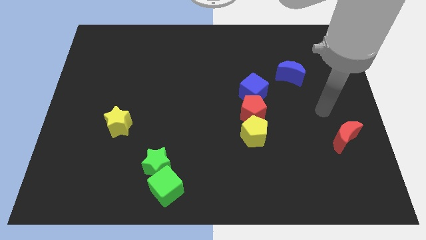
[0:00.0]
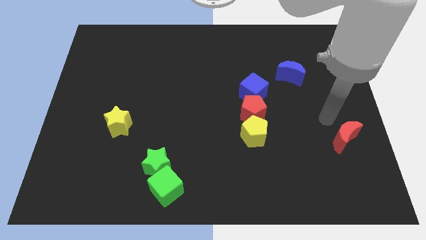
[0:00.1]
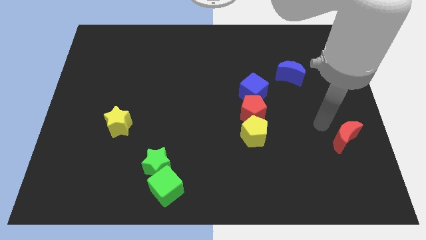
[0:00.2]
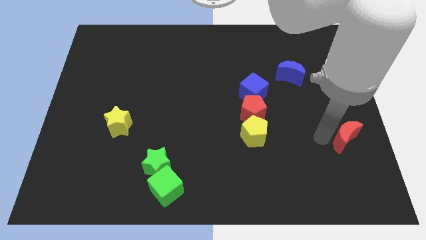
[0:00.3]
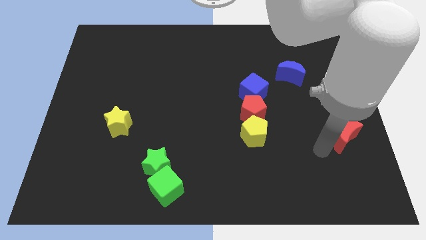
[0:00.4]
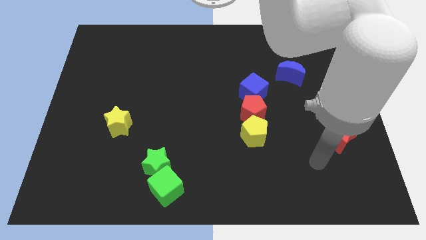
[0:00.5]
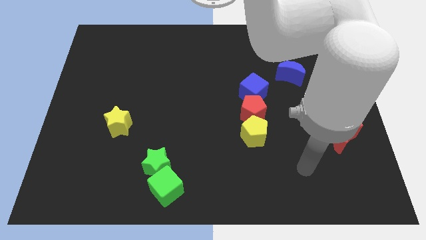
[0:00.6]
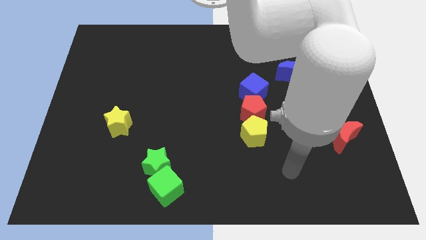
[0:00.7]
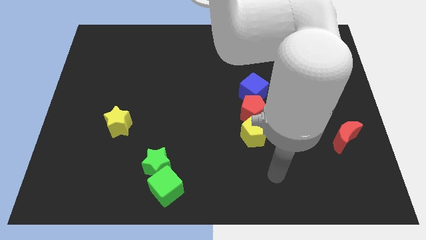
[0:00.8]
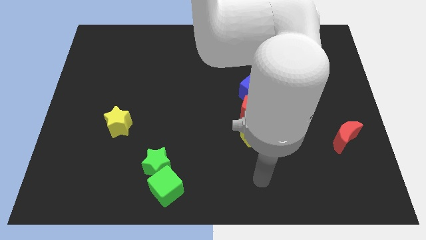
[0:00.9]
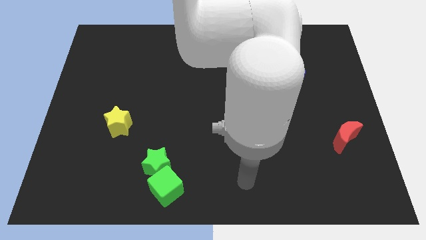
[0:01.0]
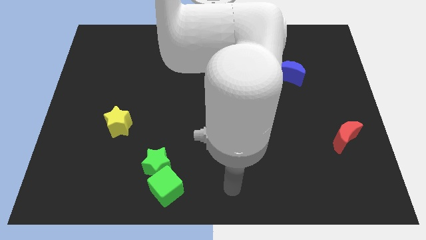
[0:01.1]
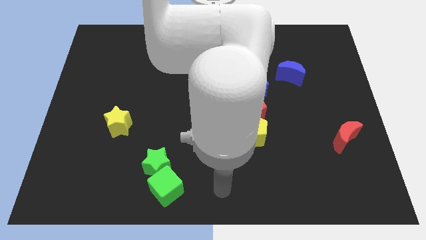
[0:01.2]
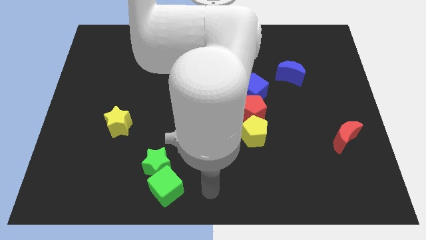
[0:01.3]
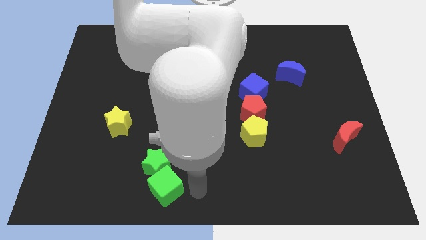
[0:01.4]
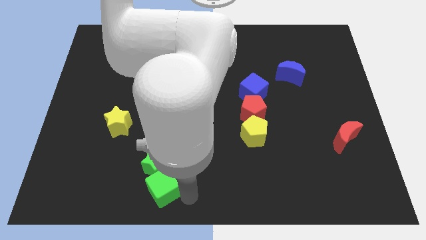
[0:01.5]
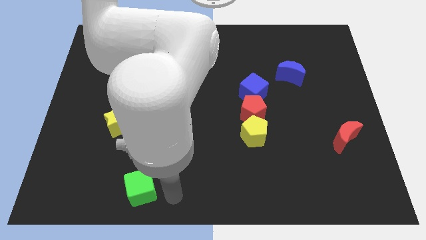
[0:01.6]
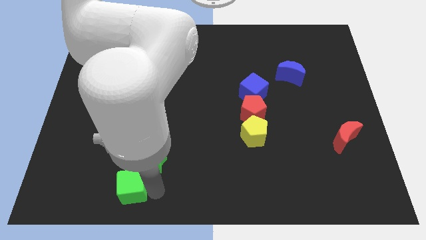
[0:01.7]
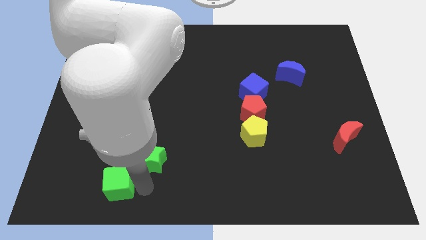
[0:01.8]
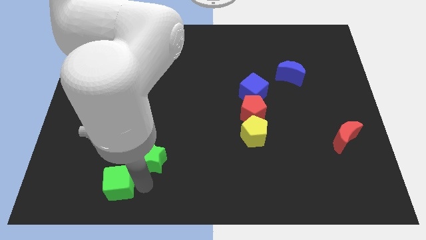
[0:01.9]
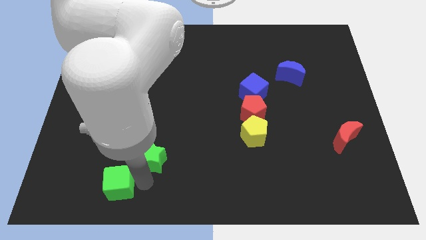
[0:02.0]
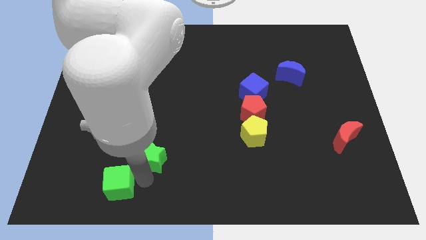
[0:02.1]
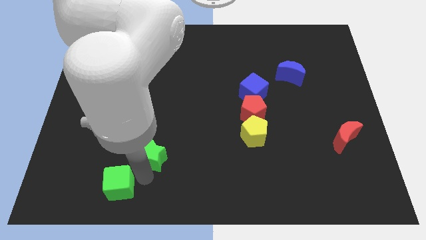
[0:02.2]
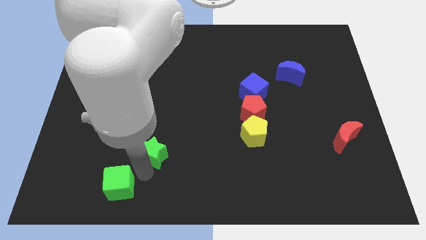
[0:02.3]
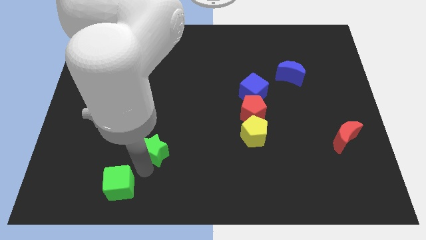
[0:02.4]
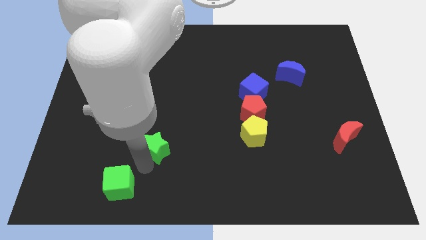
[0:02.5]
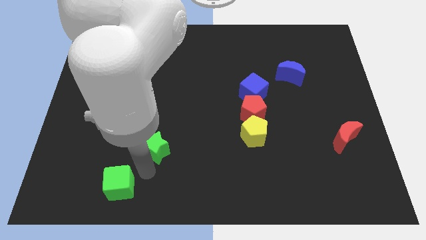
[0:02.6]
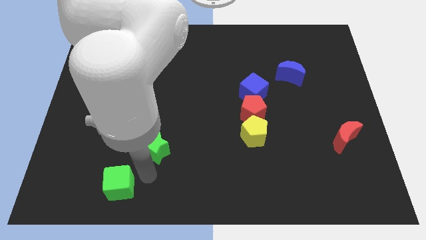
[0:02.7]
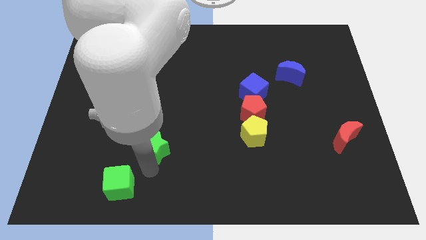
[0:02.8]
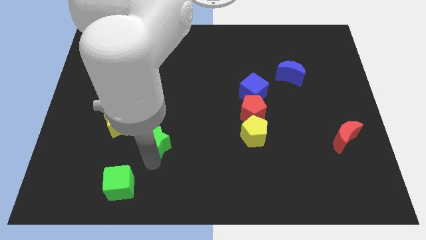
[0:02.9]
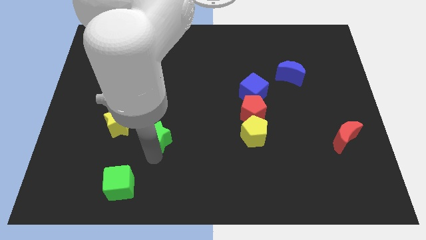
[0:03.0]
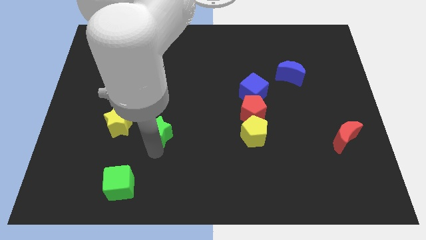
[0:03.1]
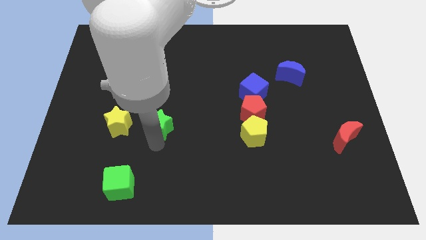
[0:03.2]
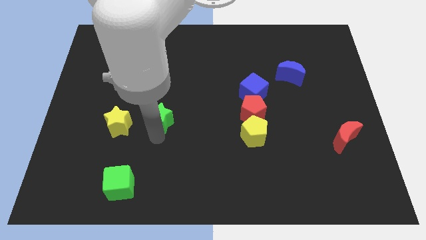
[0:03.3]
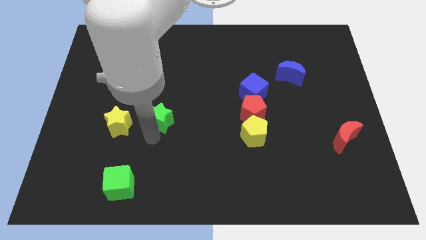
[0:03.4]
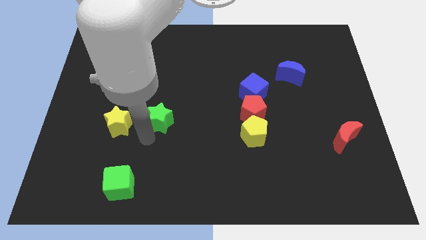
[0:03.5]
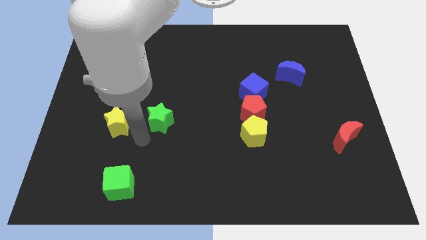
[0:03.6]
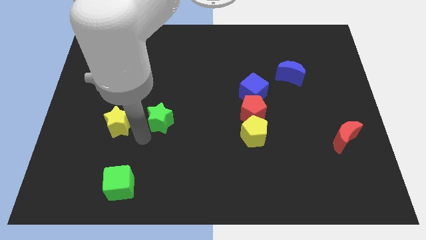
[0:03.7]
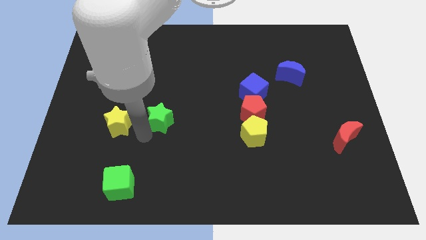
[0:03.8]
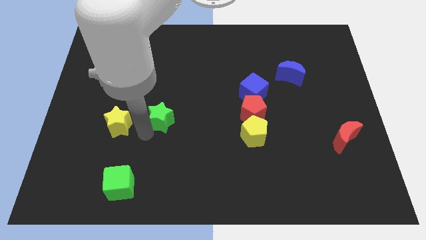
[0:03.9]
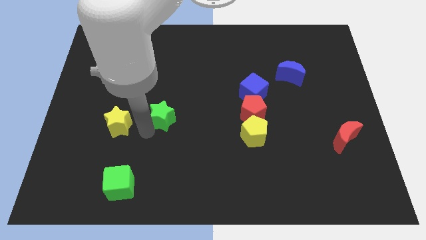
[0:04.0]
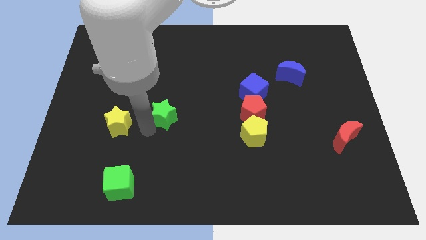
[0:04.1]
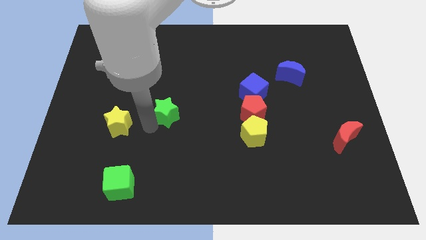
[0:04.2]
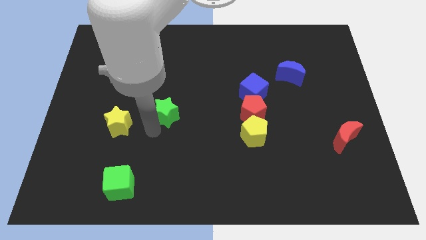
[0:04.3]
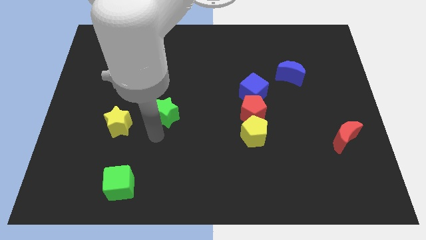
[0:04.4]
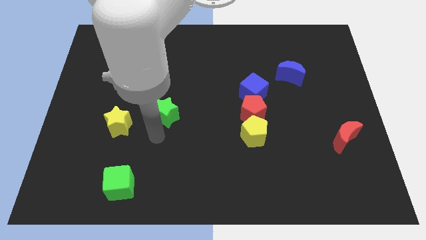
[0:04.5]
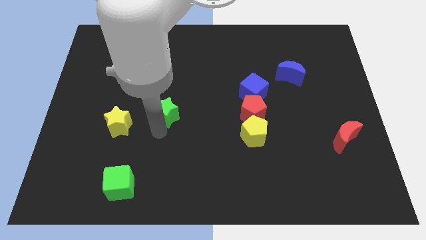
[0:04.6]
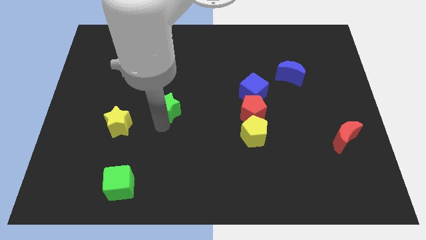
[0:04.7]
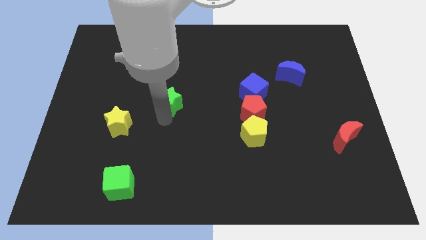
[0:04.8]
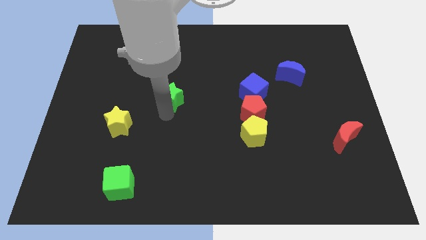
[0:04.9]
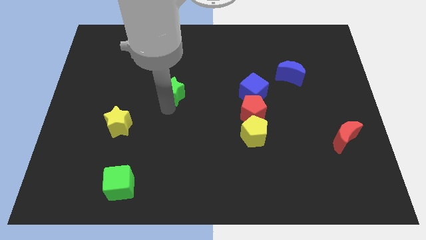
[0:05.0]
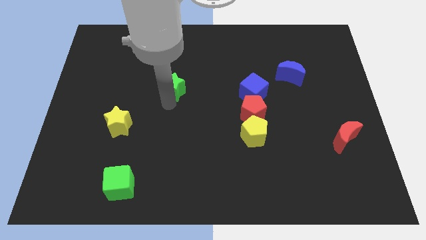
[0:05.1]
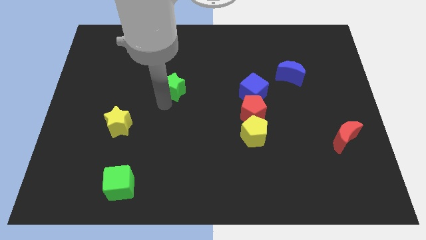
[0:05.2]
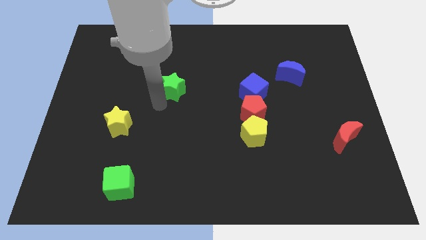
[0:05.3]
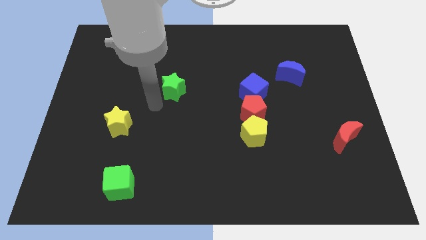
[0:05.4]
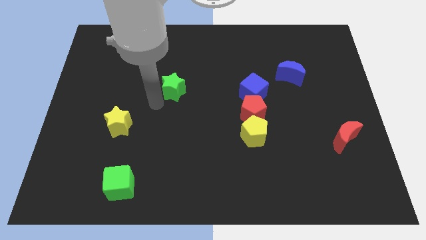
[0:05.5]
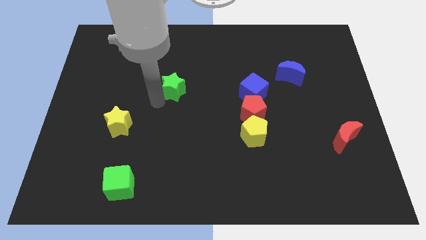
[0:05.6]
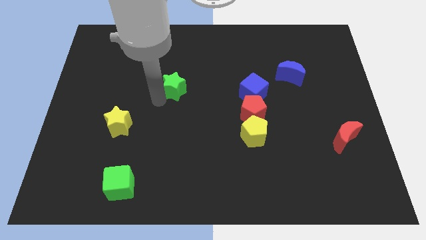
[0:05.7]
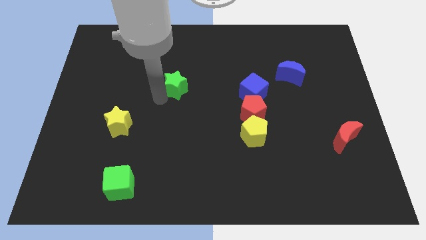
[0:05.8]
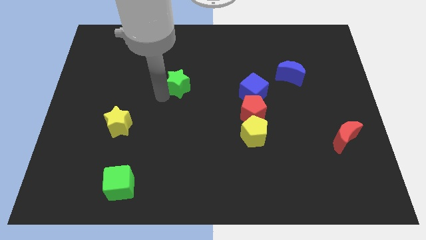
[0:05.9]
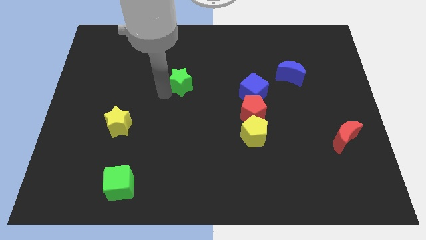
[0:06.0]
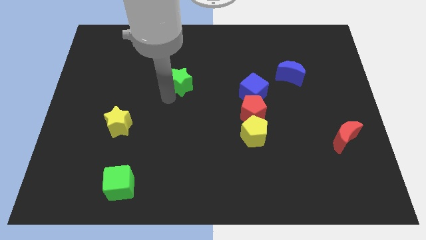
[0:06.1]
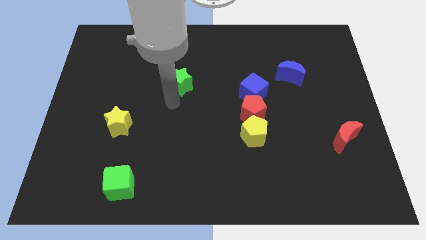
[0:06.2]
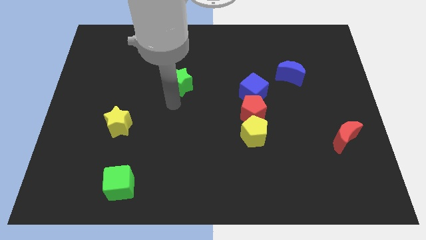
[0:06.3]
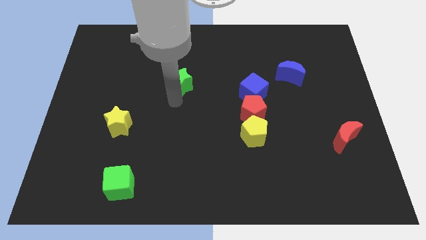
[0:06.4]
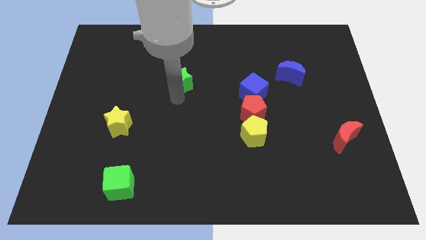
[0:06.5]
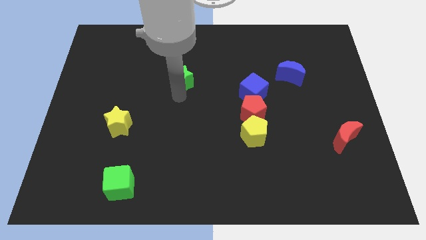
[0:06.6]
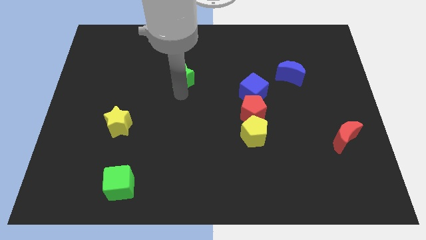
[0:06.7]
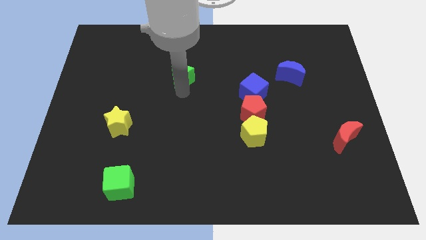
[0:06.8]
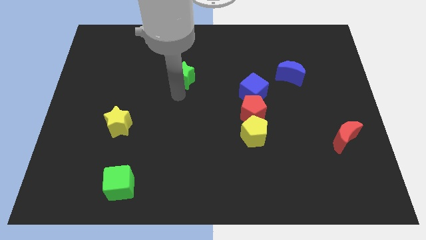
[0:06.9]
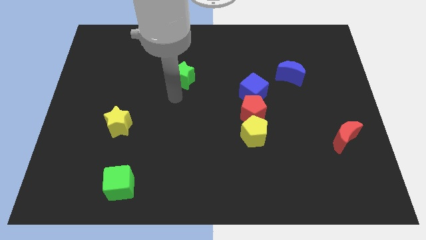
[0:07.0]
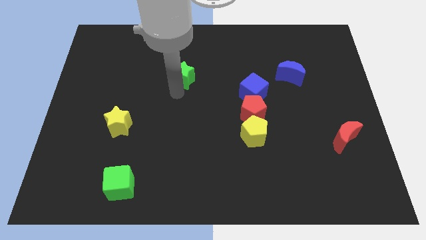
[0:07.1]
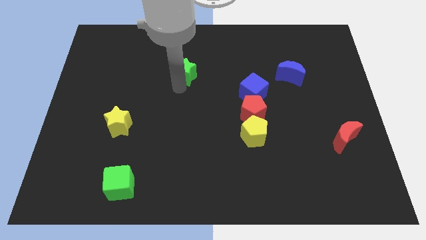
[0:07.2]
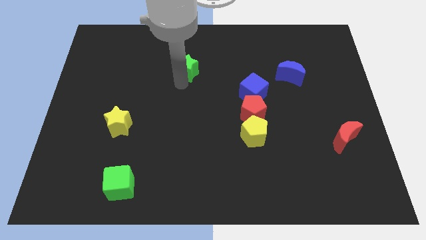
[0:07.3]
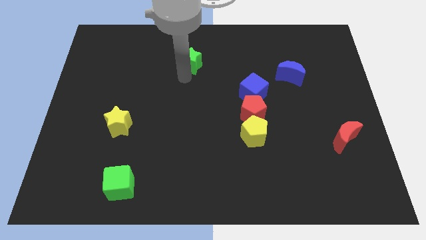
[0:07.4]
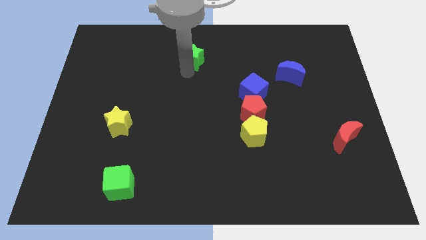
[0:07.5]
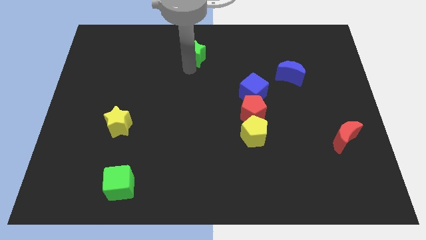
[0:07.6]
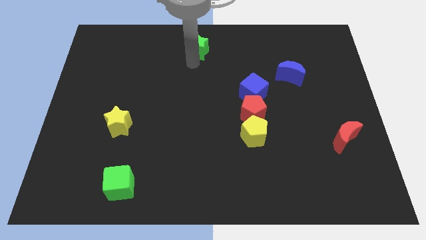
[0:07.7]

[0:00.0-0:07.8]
put the green star to the top
